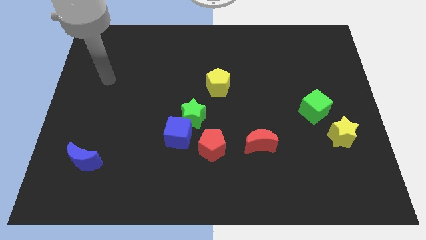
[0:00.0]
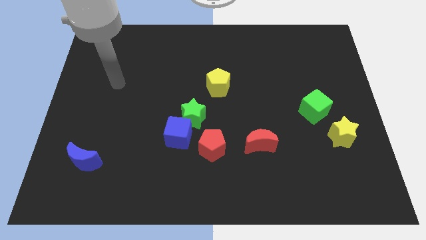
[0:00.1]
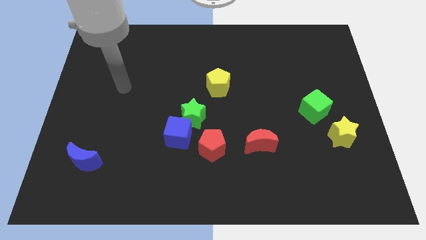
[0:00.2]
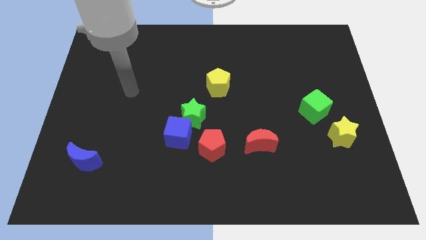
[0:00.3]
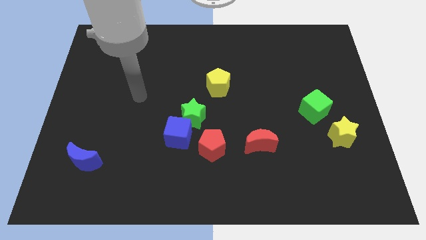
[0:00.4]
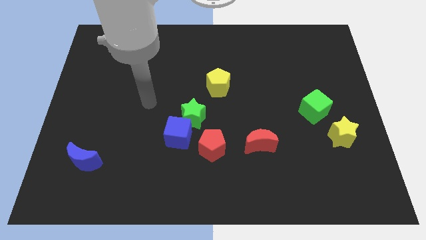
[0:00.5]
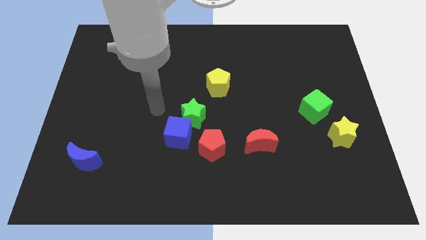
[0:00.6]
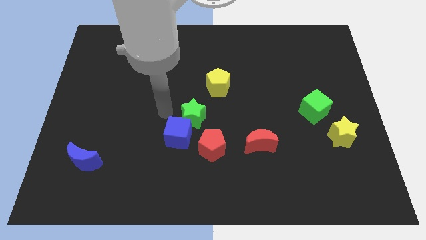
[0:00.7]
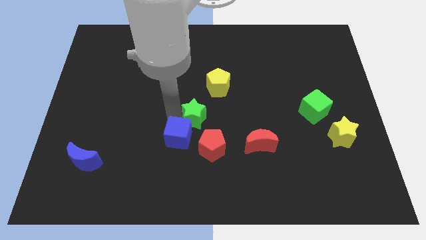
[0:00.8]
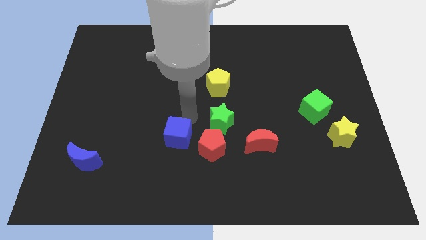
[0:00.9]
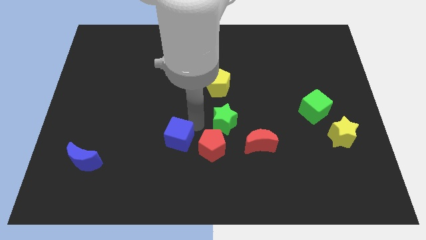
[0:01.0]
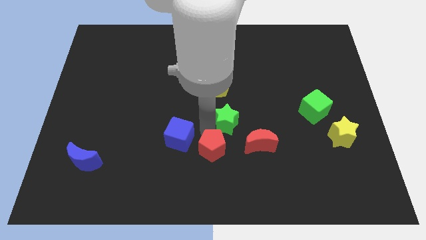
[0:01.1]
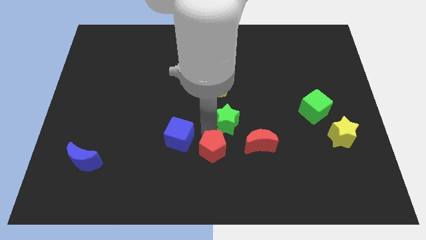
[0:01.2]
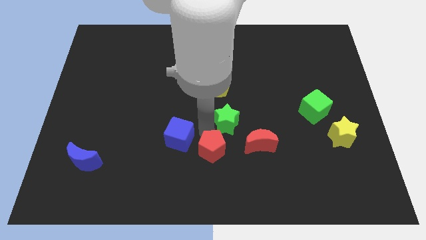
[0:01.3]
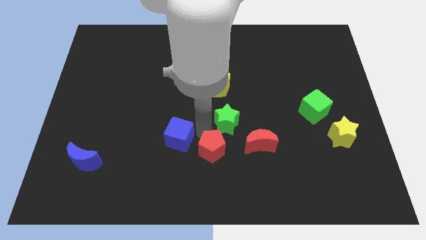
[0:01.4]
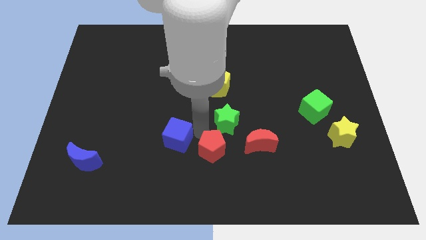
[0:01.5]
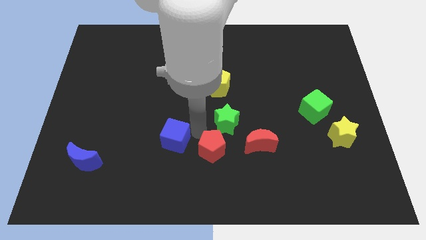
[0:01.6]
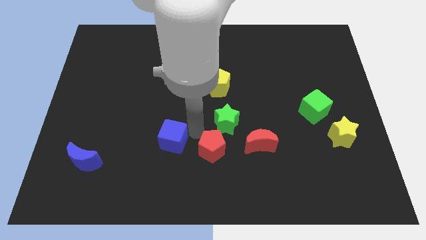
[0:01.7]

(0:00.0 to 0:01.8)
separate the blue cube from the green star and red pentagon

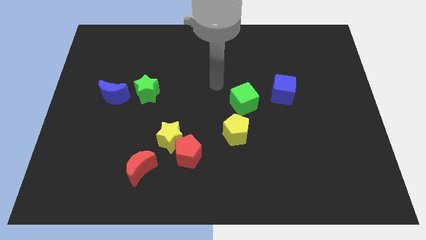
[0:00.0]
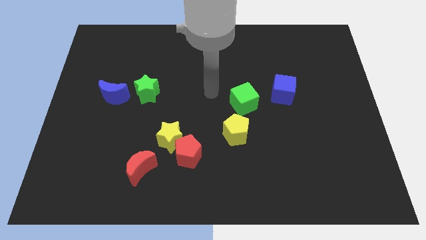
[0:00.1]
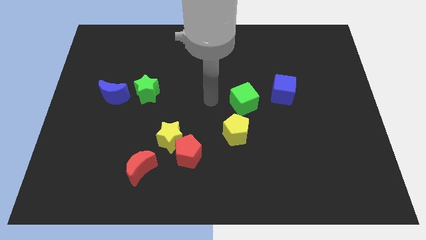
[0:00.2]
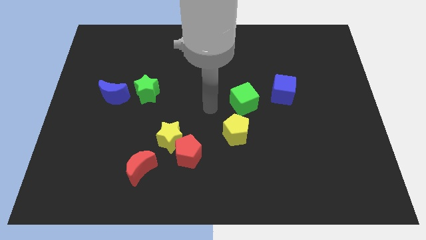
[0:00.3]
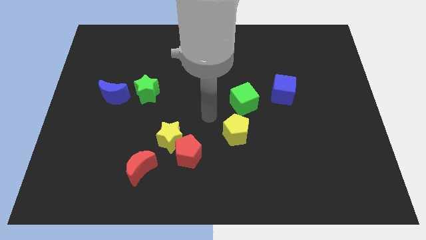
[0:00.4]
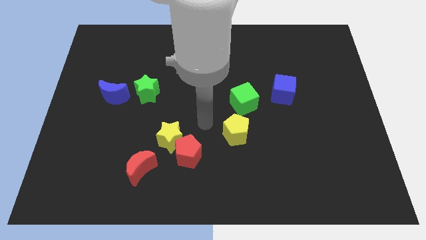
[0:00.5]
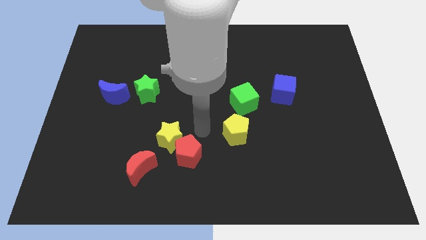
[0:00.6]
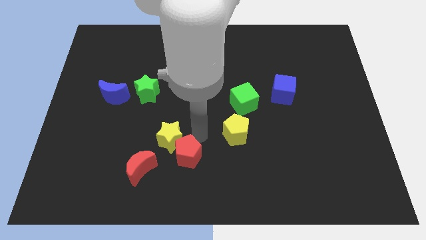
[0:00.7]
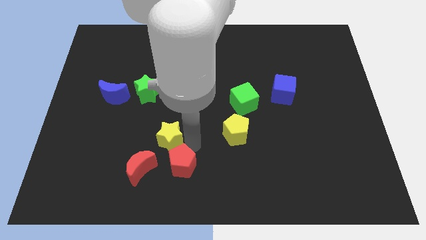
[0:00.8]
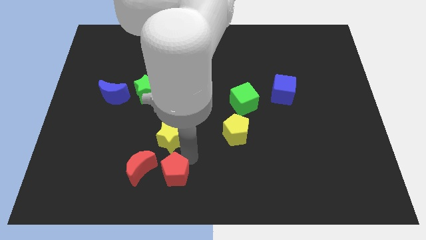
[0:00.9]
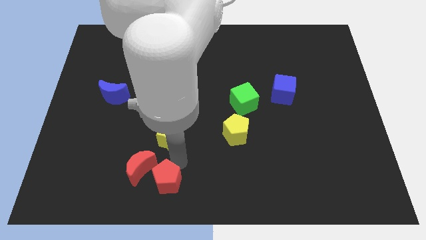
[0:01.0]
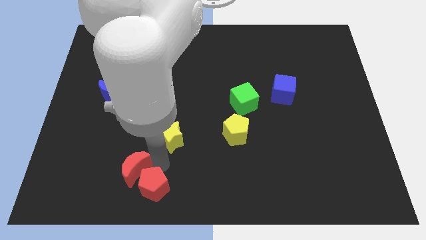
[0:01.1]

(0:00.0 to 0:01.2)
move the yellow star away from the red pentagon and red moon

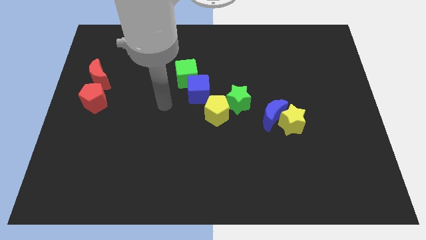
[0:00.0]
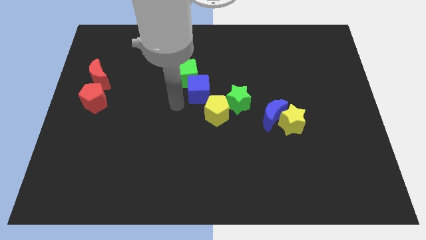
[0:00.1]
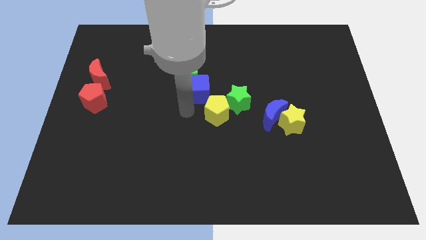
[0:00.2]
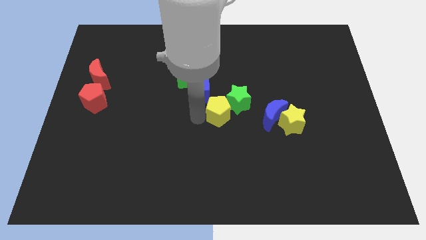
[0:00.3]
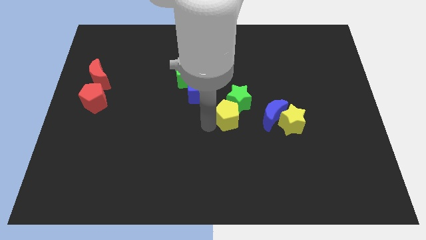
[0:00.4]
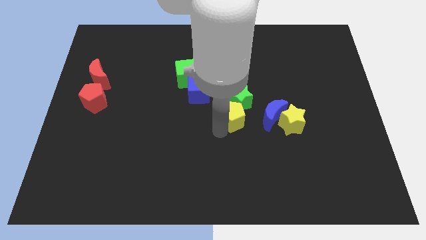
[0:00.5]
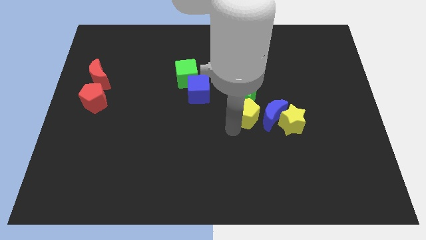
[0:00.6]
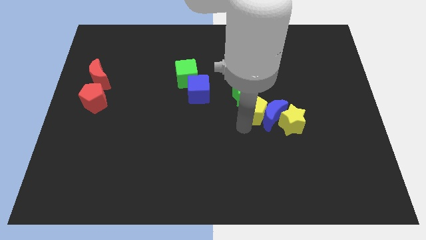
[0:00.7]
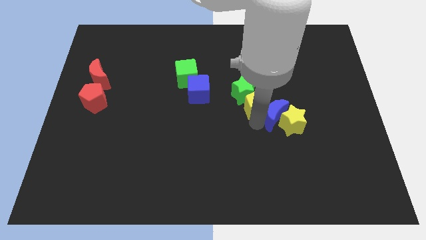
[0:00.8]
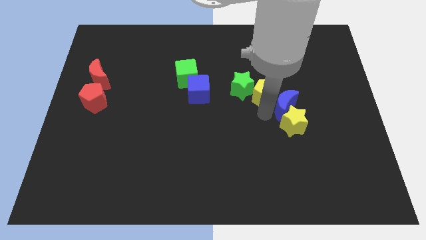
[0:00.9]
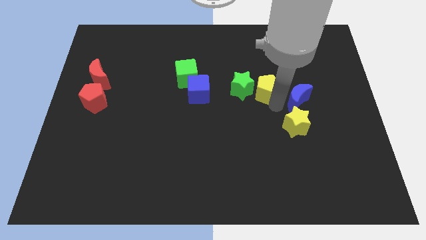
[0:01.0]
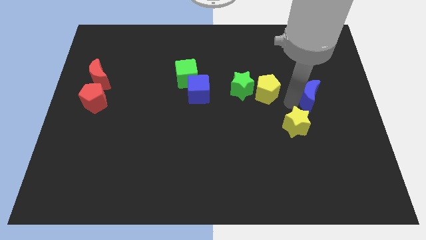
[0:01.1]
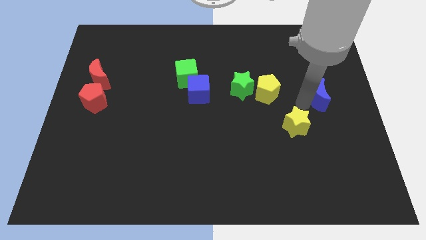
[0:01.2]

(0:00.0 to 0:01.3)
separate the yellow star from the blue moon

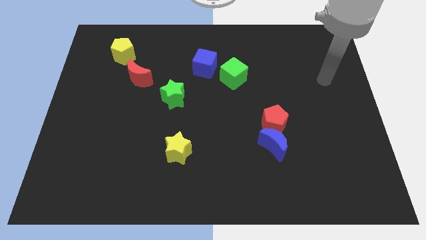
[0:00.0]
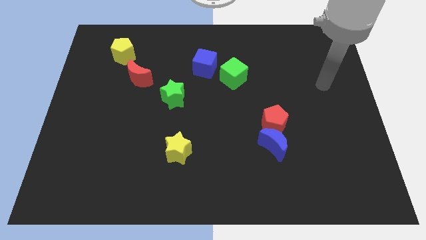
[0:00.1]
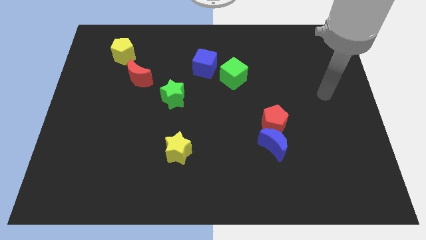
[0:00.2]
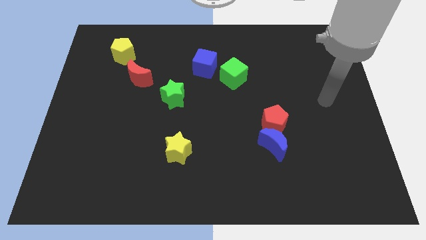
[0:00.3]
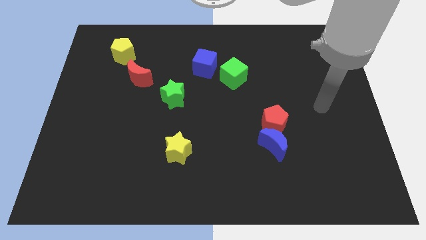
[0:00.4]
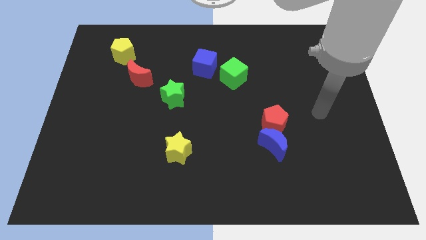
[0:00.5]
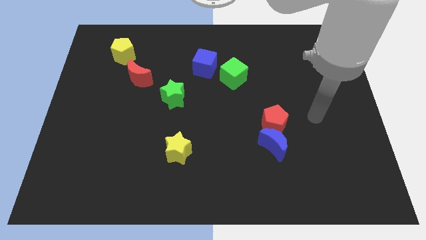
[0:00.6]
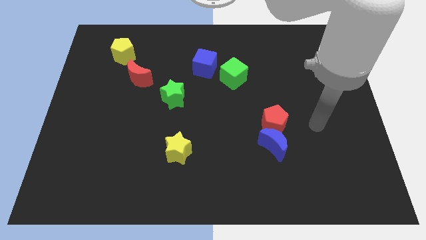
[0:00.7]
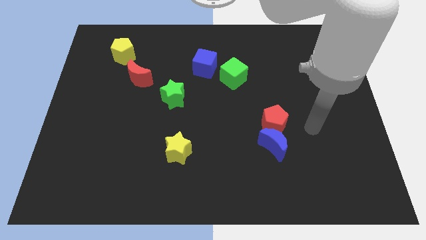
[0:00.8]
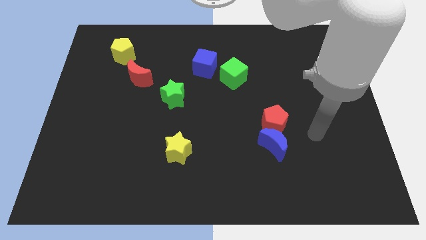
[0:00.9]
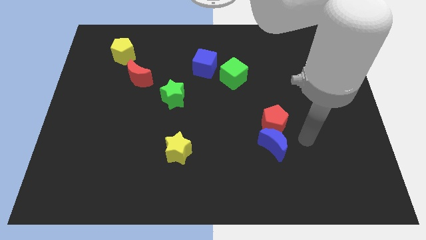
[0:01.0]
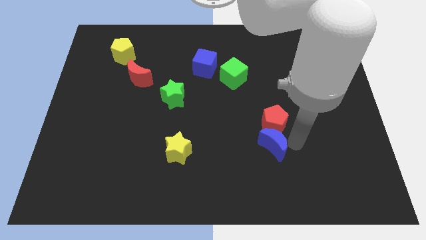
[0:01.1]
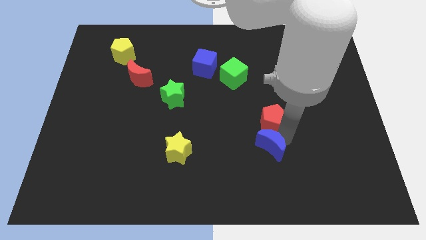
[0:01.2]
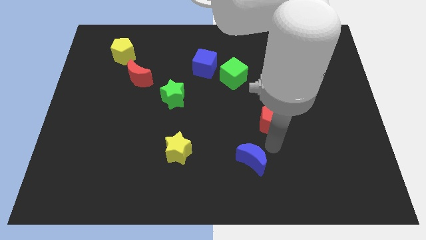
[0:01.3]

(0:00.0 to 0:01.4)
separate the red pentagon from the blue moon

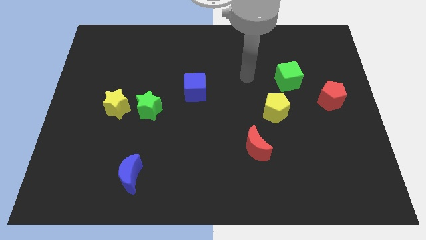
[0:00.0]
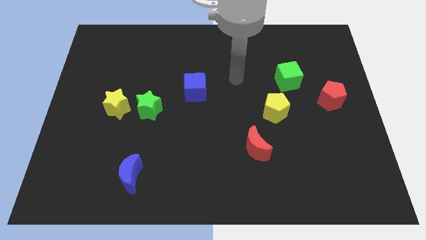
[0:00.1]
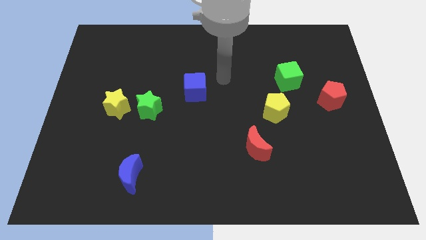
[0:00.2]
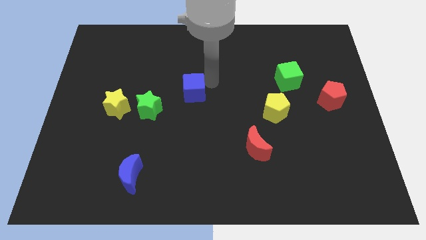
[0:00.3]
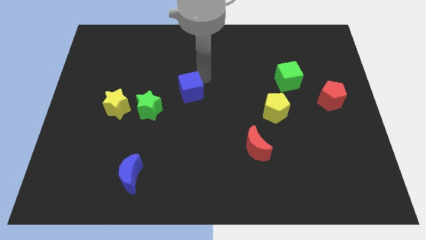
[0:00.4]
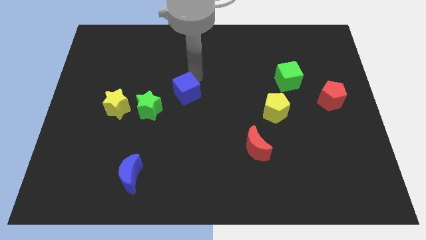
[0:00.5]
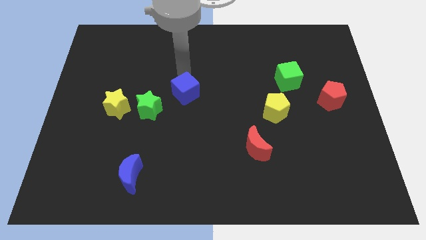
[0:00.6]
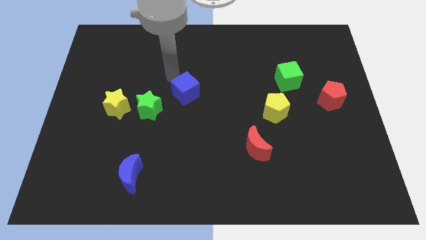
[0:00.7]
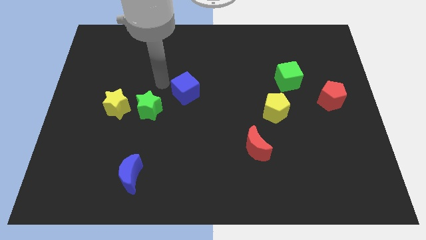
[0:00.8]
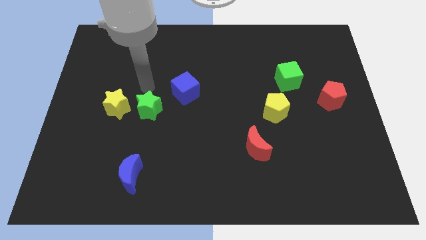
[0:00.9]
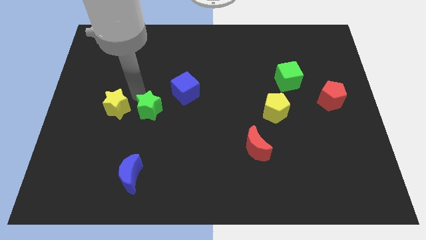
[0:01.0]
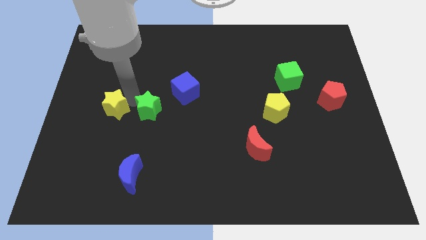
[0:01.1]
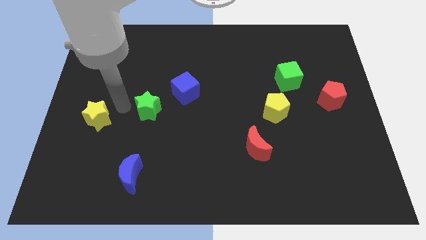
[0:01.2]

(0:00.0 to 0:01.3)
separate the green star from the yellow star

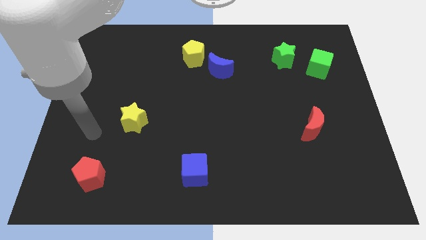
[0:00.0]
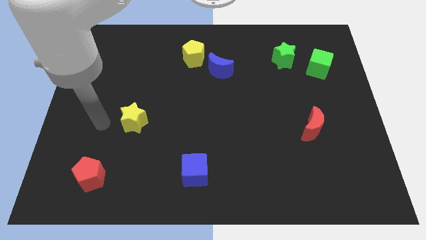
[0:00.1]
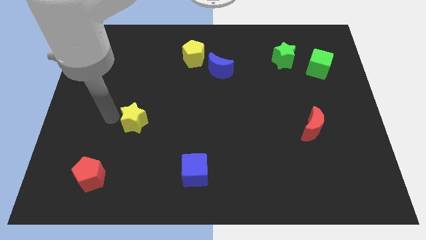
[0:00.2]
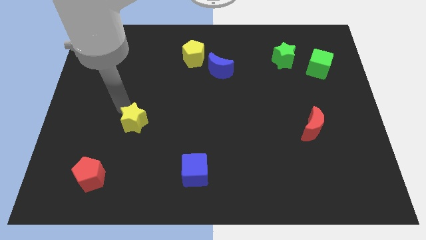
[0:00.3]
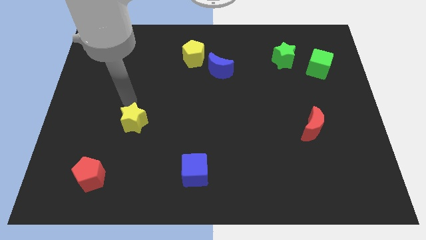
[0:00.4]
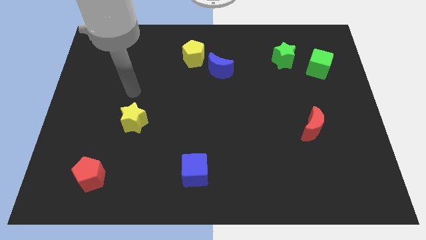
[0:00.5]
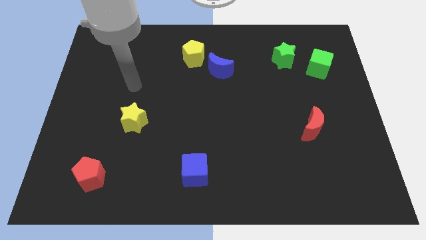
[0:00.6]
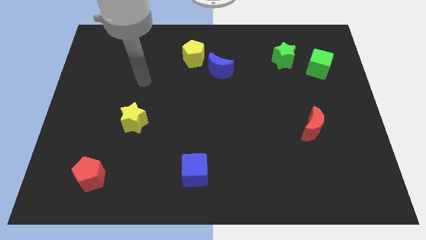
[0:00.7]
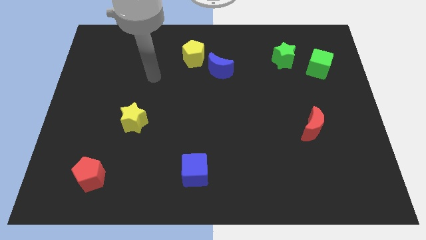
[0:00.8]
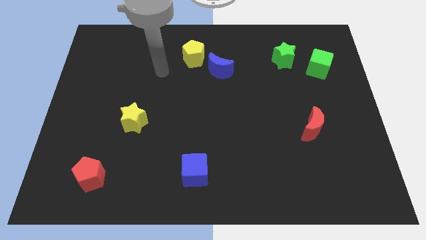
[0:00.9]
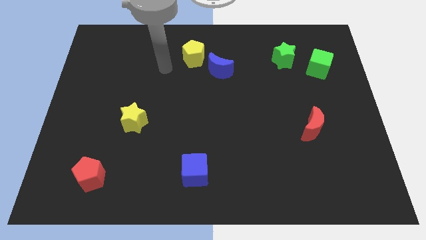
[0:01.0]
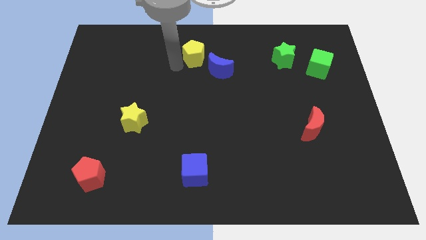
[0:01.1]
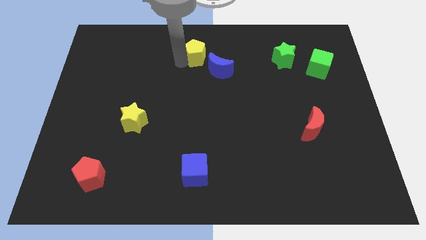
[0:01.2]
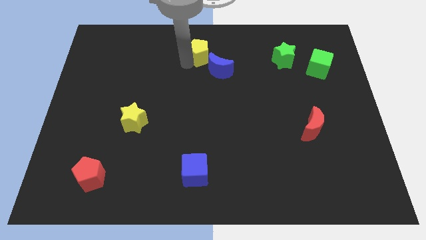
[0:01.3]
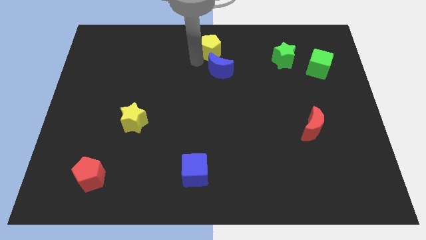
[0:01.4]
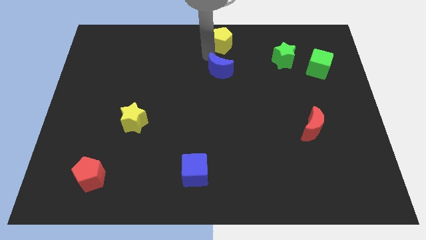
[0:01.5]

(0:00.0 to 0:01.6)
pull the blue moon apart from the yellow pentagon

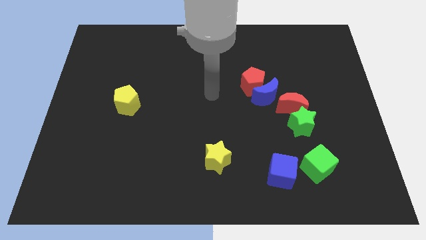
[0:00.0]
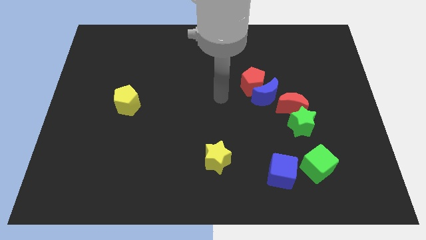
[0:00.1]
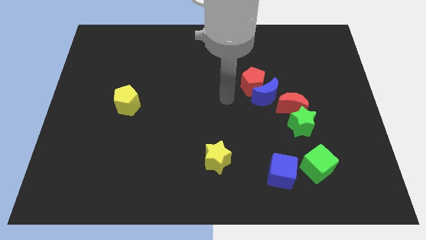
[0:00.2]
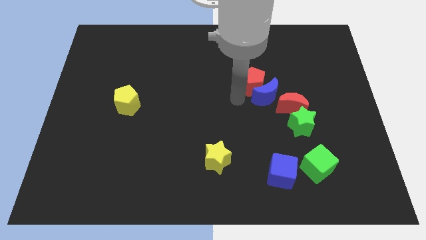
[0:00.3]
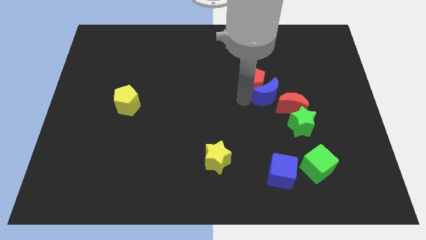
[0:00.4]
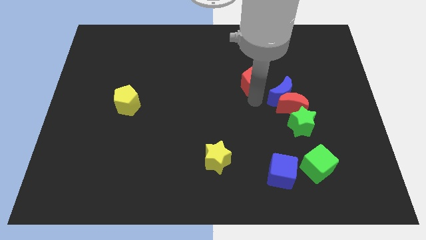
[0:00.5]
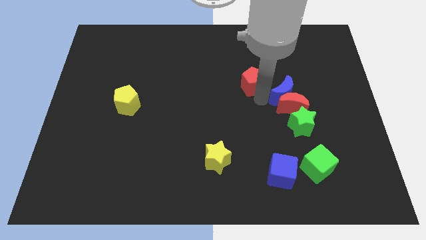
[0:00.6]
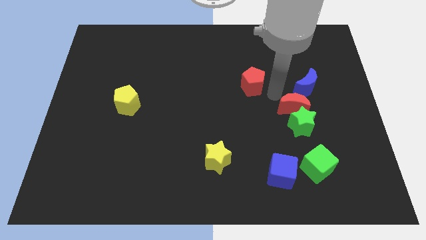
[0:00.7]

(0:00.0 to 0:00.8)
pull the red pentagon apart from the blue moon
